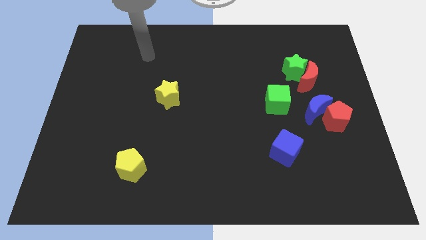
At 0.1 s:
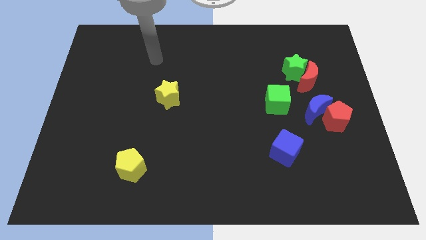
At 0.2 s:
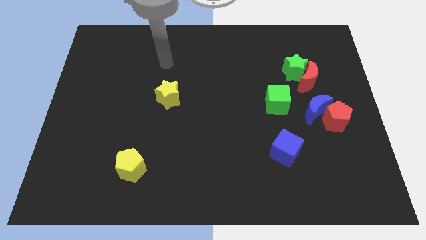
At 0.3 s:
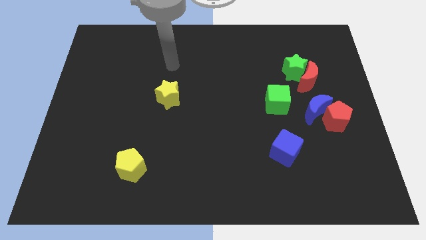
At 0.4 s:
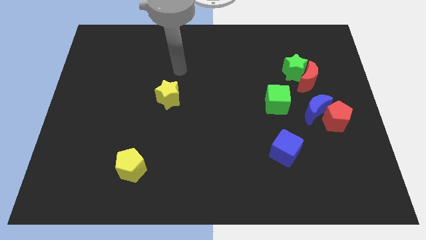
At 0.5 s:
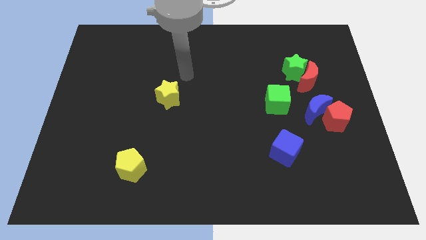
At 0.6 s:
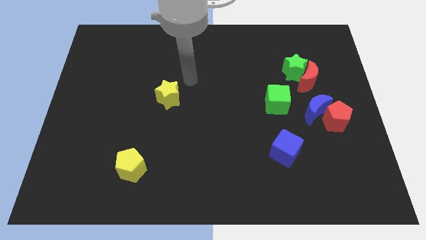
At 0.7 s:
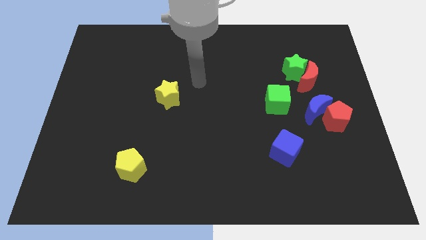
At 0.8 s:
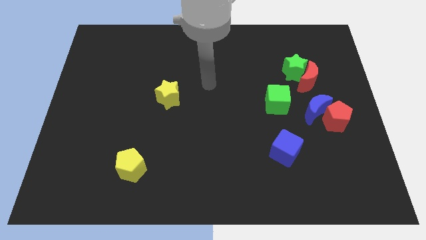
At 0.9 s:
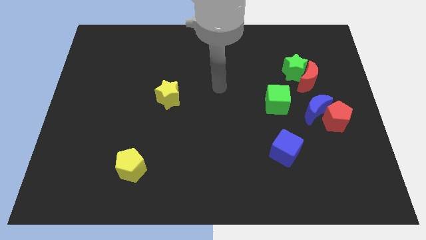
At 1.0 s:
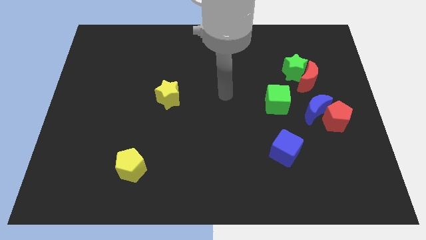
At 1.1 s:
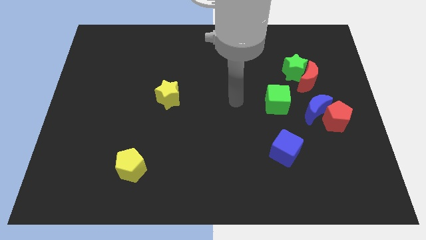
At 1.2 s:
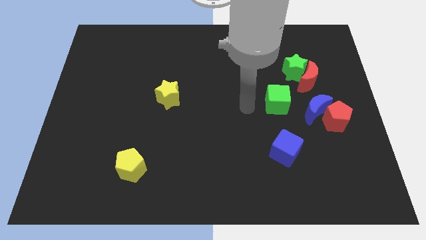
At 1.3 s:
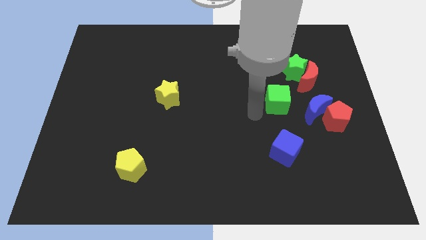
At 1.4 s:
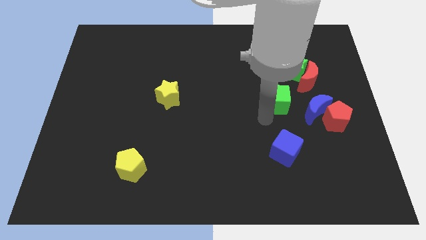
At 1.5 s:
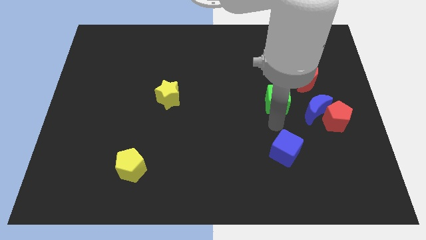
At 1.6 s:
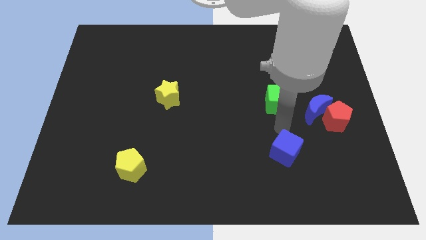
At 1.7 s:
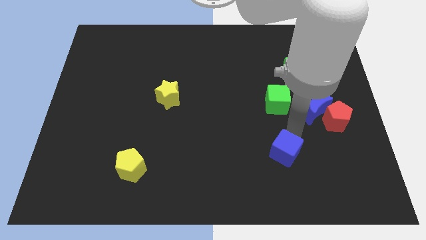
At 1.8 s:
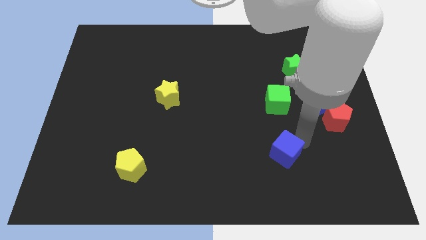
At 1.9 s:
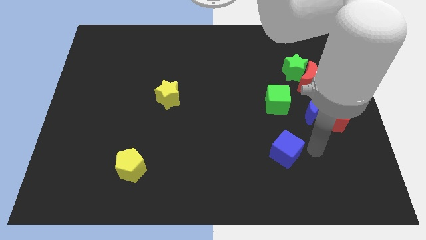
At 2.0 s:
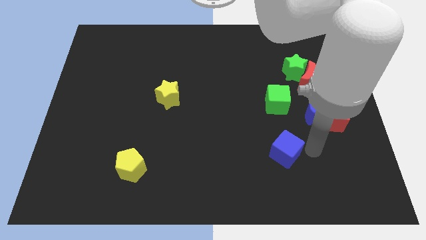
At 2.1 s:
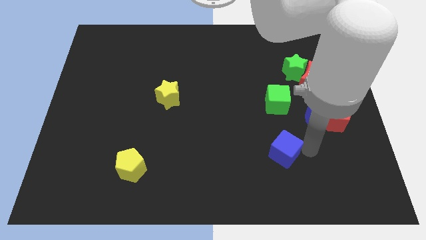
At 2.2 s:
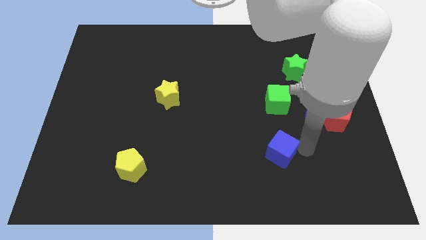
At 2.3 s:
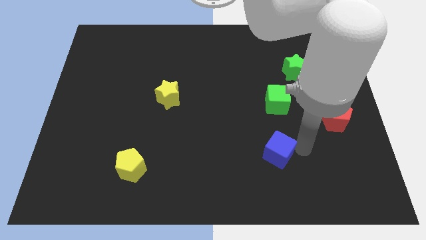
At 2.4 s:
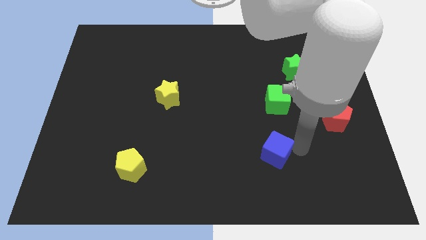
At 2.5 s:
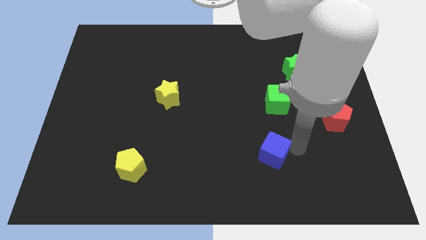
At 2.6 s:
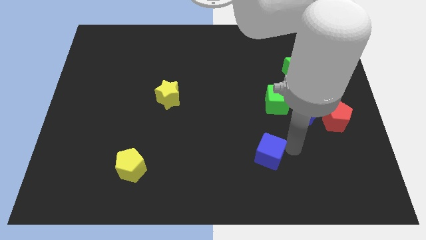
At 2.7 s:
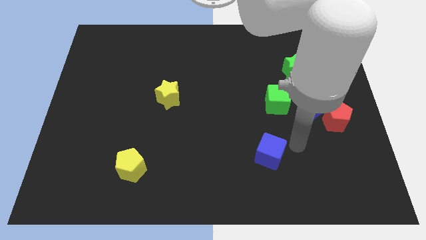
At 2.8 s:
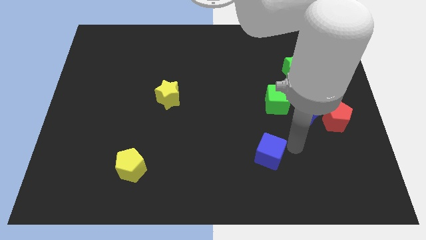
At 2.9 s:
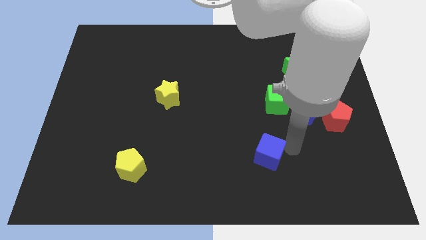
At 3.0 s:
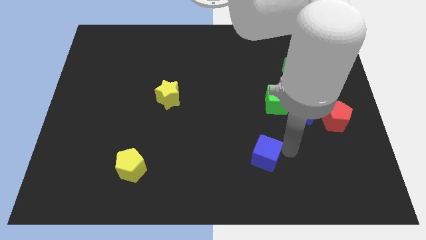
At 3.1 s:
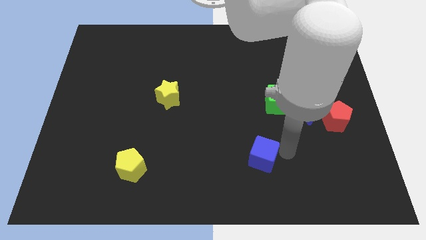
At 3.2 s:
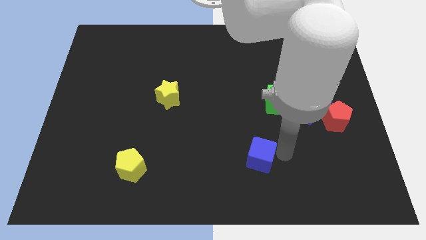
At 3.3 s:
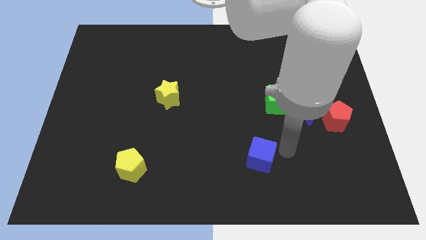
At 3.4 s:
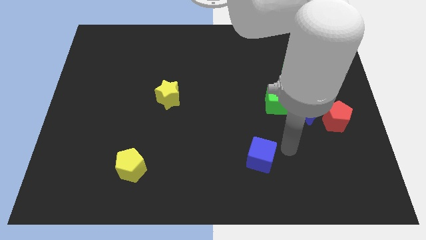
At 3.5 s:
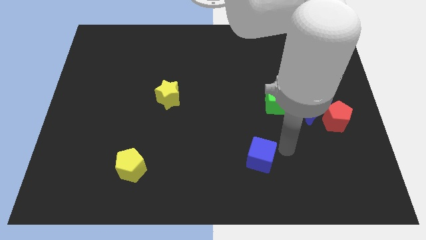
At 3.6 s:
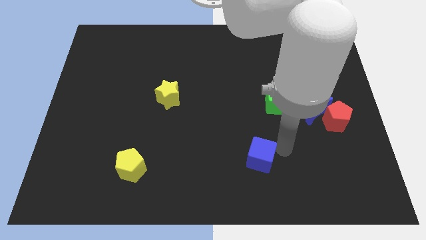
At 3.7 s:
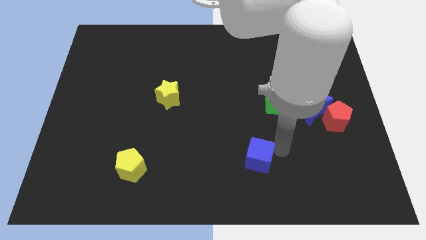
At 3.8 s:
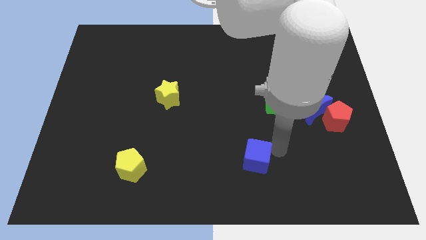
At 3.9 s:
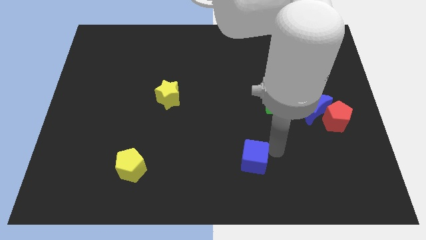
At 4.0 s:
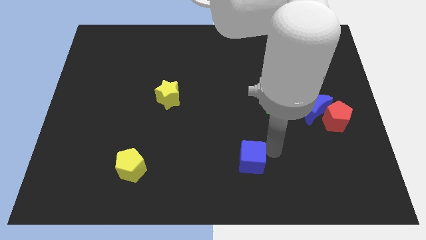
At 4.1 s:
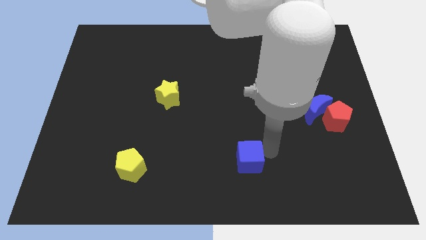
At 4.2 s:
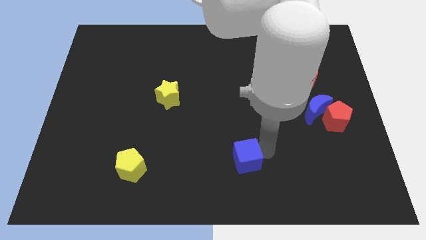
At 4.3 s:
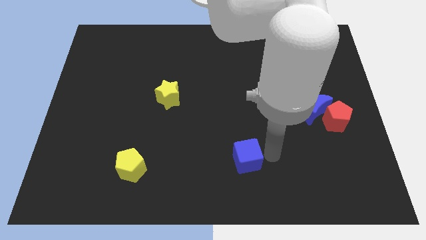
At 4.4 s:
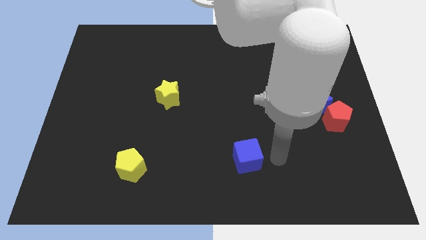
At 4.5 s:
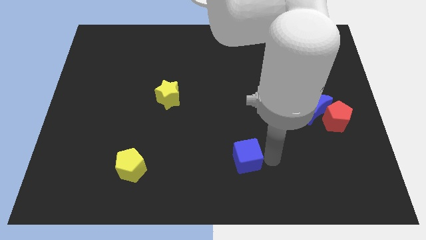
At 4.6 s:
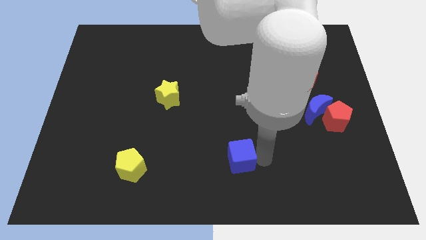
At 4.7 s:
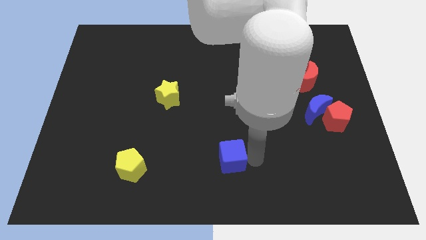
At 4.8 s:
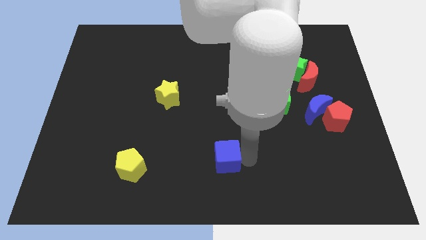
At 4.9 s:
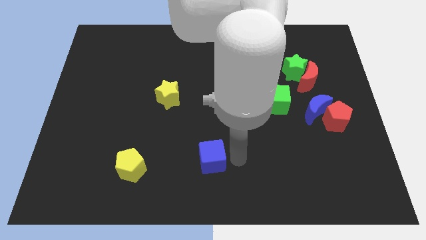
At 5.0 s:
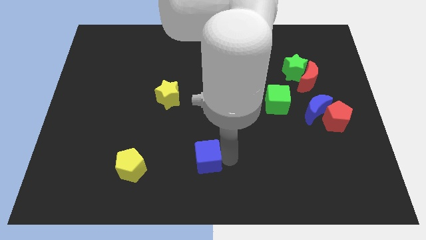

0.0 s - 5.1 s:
push the blue cube just right of the yellow pentagon

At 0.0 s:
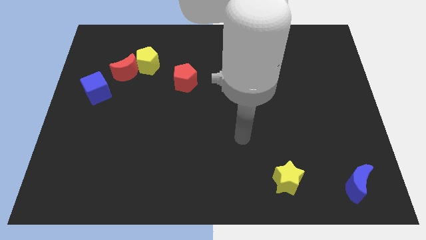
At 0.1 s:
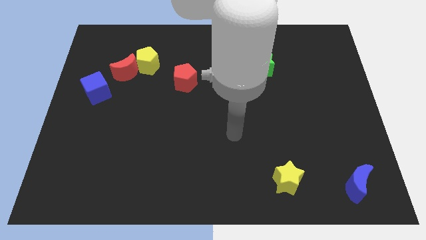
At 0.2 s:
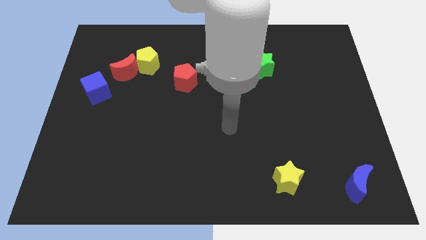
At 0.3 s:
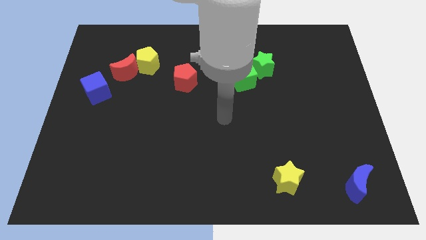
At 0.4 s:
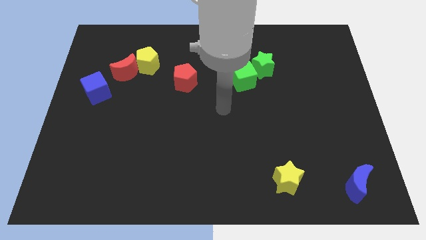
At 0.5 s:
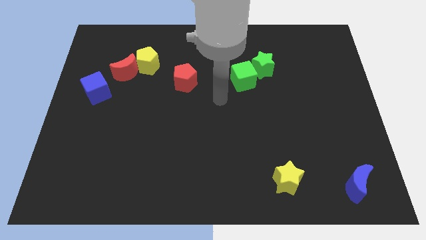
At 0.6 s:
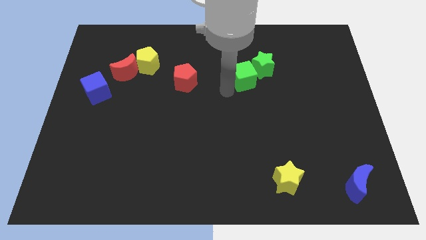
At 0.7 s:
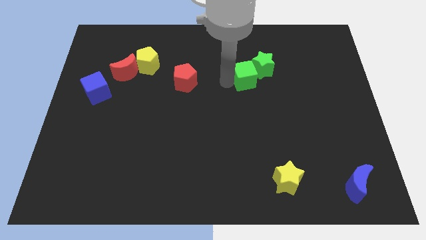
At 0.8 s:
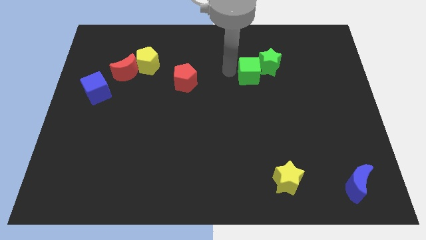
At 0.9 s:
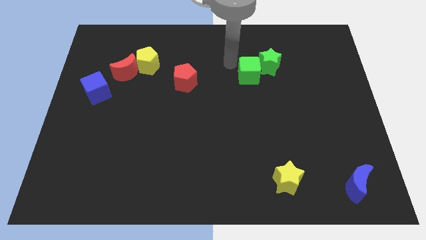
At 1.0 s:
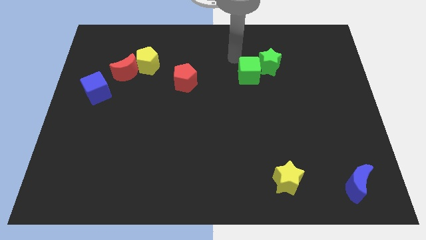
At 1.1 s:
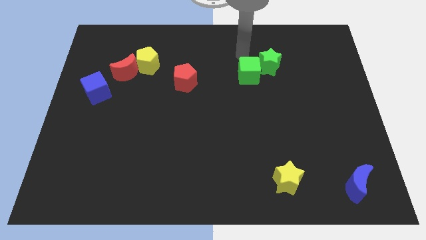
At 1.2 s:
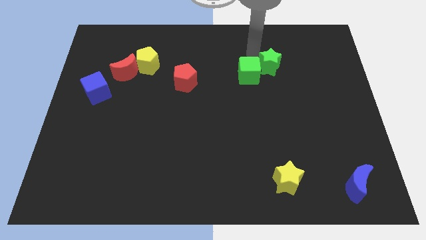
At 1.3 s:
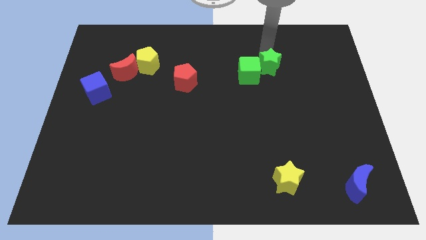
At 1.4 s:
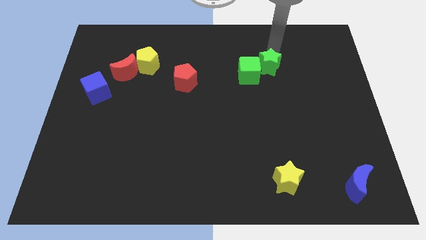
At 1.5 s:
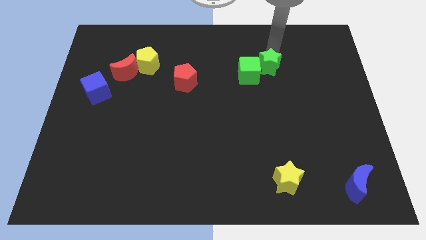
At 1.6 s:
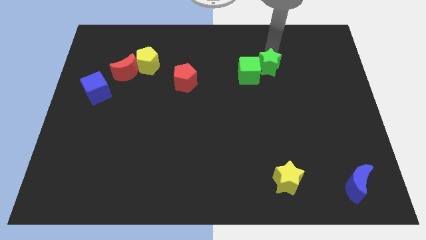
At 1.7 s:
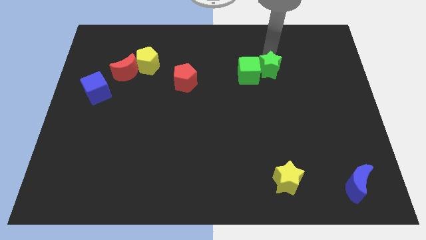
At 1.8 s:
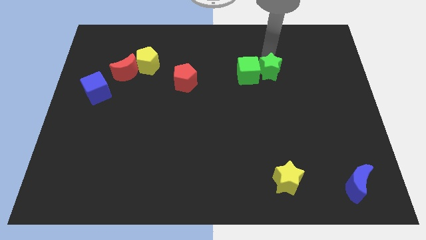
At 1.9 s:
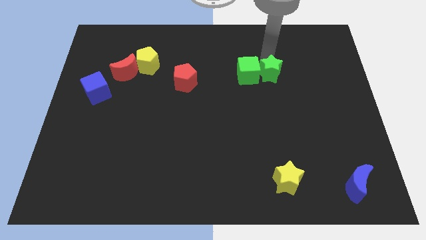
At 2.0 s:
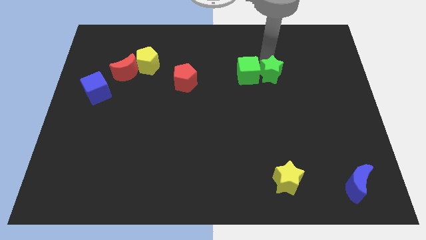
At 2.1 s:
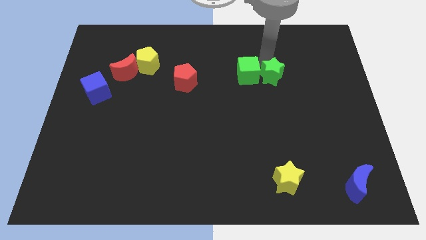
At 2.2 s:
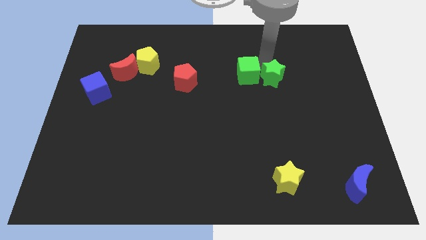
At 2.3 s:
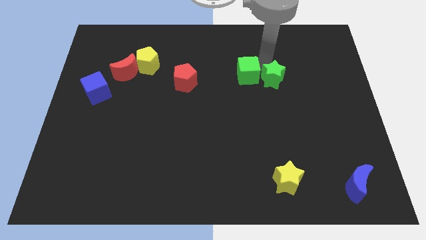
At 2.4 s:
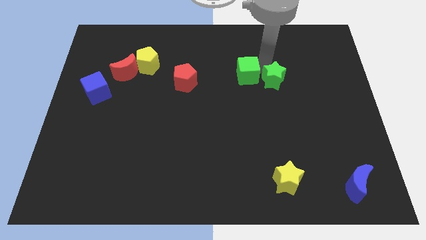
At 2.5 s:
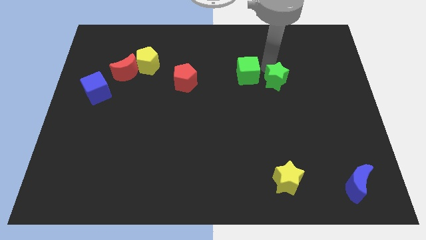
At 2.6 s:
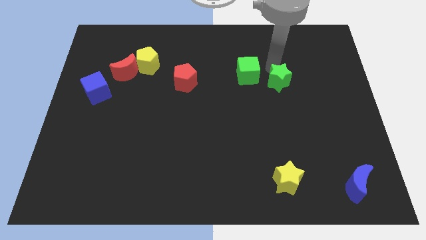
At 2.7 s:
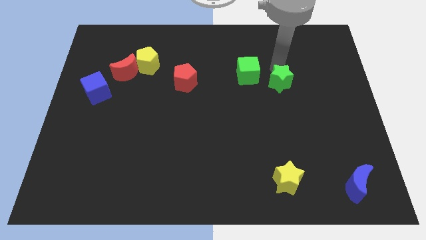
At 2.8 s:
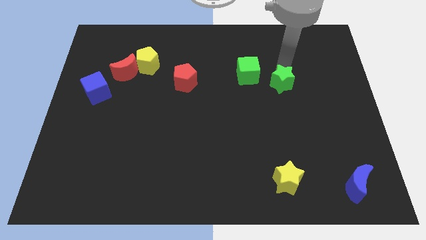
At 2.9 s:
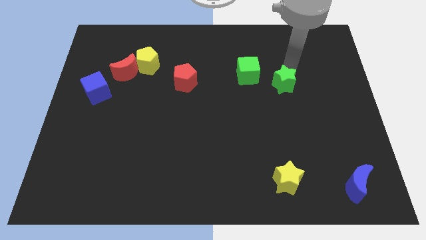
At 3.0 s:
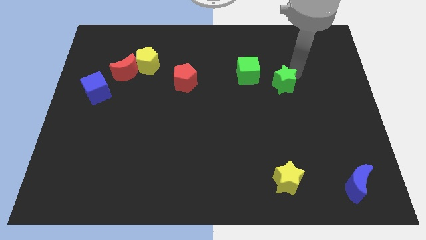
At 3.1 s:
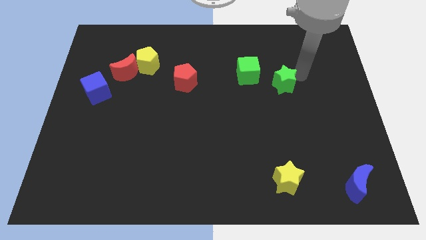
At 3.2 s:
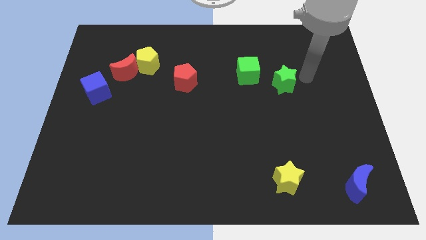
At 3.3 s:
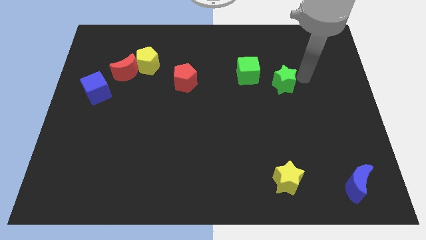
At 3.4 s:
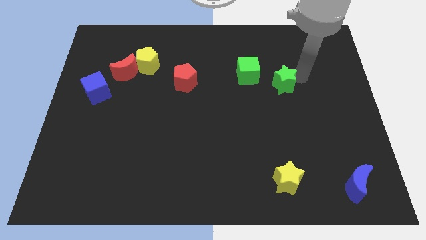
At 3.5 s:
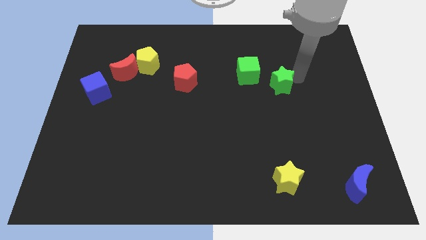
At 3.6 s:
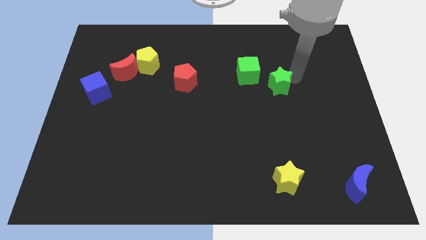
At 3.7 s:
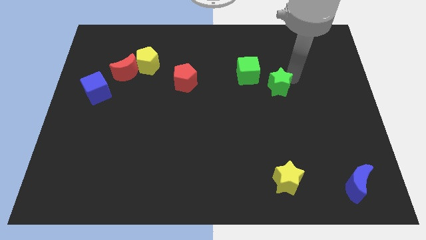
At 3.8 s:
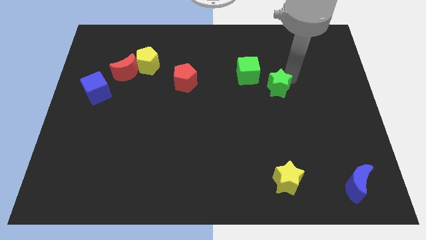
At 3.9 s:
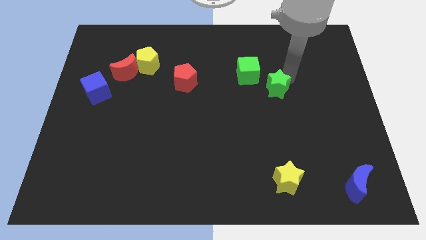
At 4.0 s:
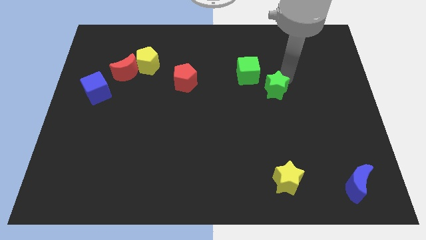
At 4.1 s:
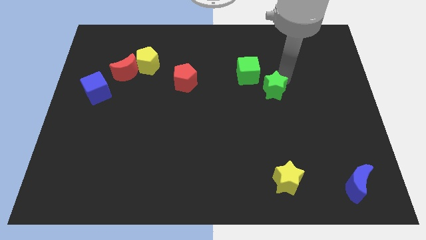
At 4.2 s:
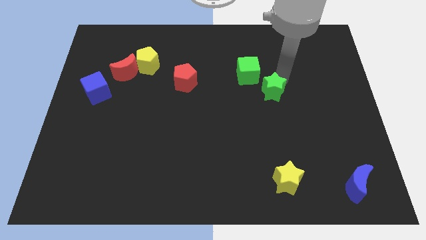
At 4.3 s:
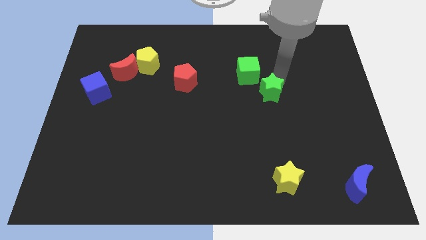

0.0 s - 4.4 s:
put the green star to the bottom side of the green cube
